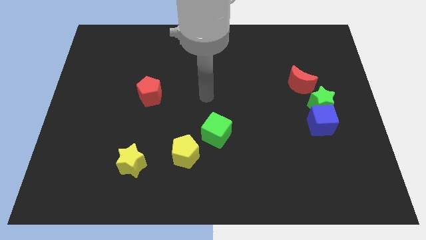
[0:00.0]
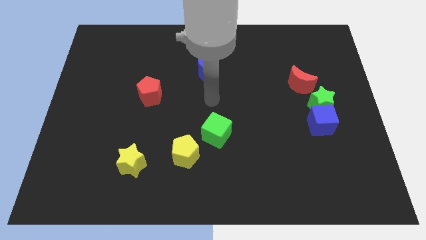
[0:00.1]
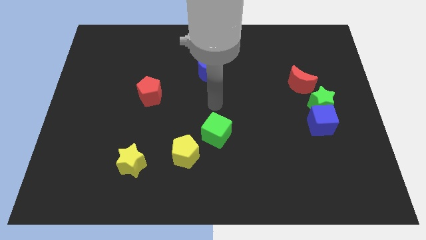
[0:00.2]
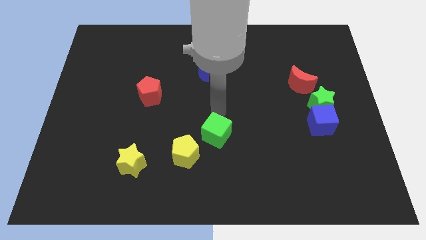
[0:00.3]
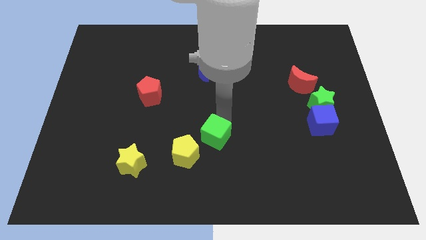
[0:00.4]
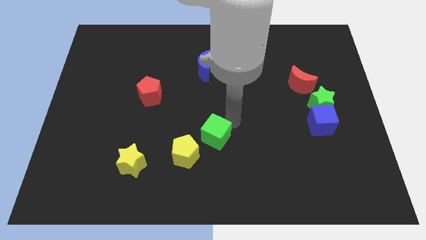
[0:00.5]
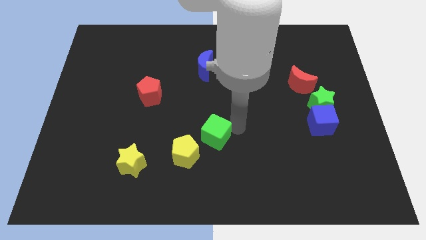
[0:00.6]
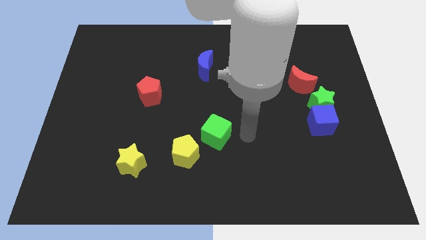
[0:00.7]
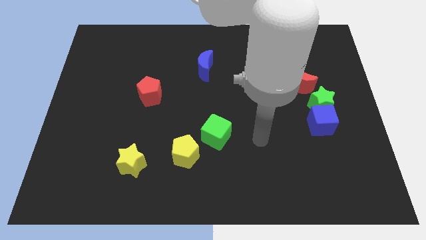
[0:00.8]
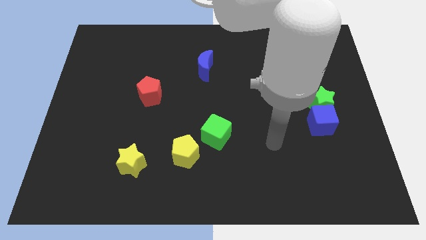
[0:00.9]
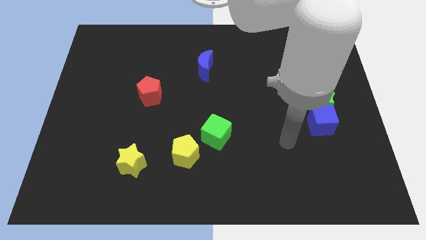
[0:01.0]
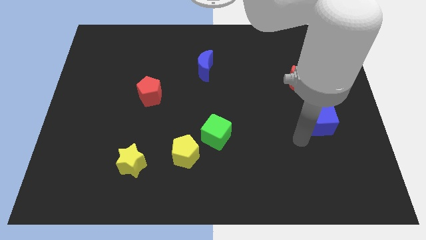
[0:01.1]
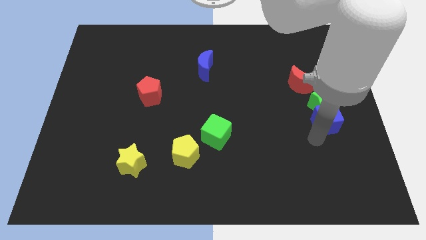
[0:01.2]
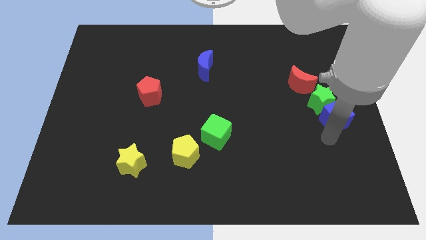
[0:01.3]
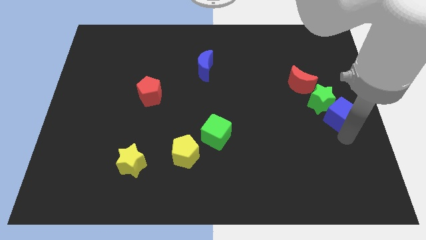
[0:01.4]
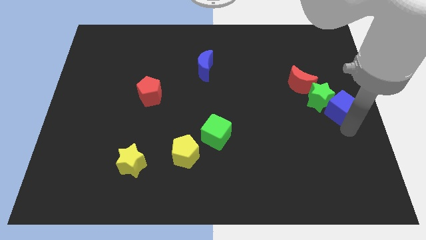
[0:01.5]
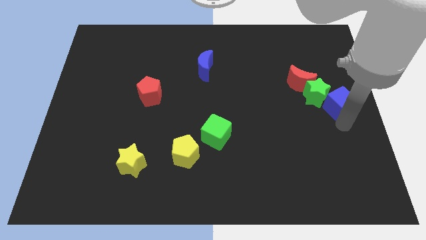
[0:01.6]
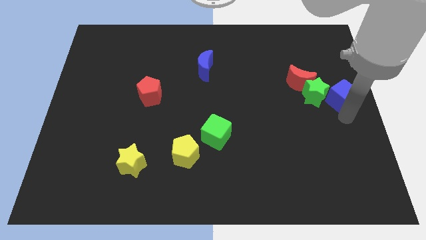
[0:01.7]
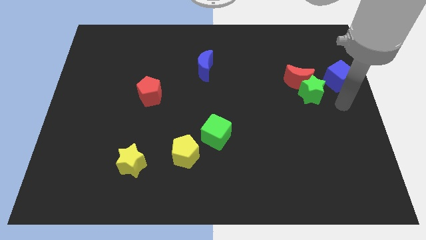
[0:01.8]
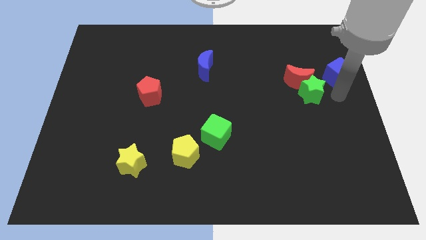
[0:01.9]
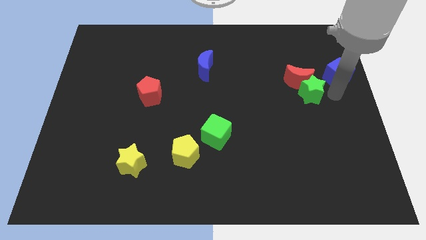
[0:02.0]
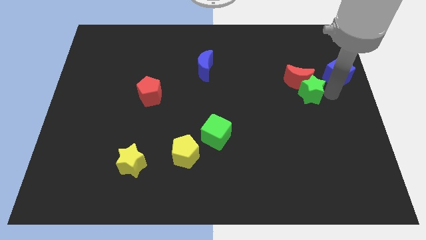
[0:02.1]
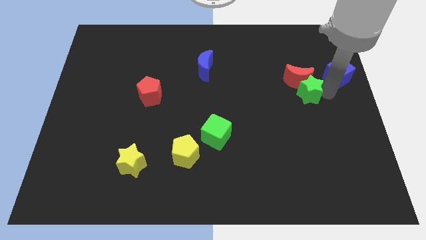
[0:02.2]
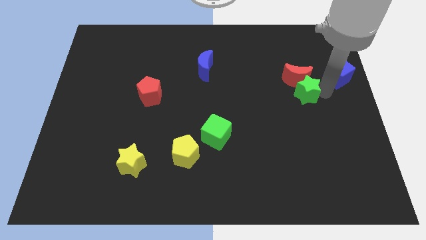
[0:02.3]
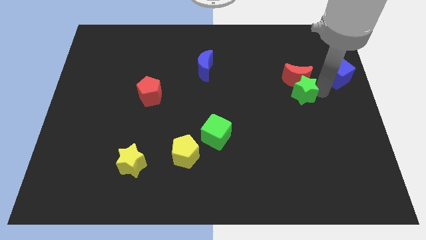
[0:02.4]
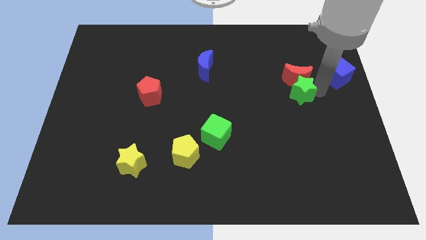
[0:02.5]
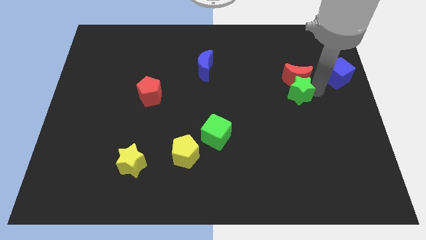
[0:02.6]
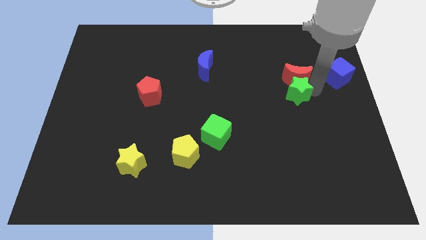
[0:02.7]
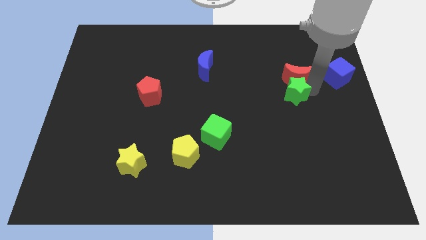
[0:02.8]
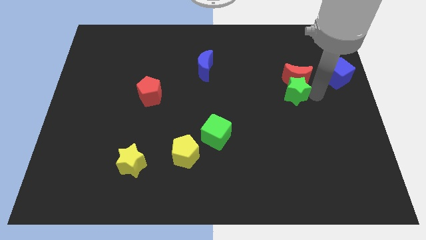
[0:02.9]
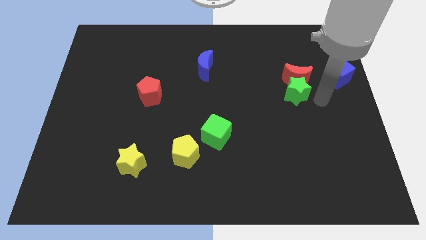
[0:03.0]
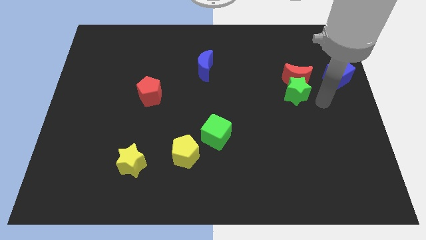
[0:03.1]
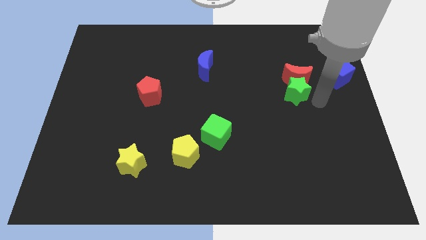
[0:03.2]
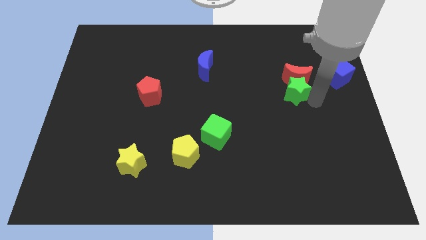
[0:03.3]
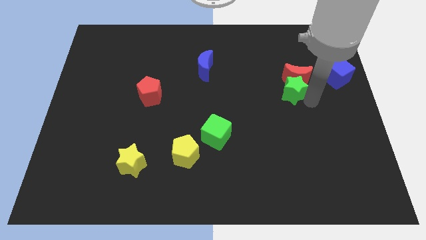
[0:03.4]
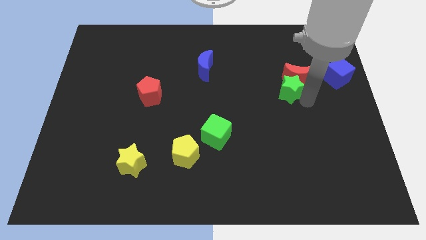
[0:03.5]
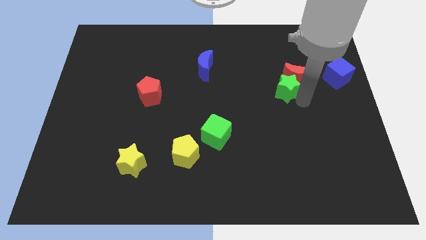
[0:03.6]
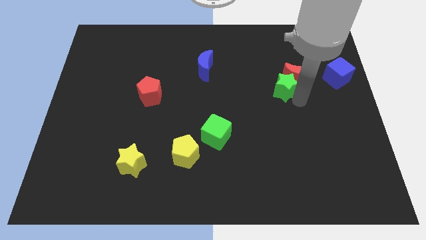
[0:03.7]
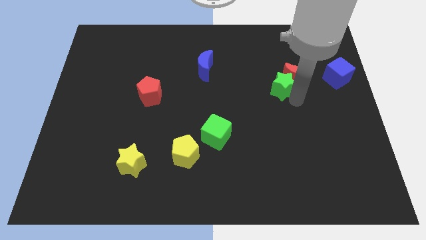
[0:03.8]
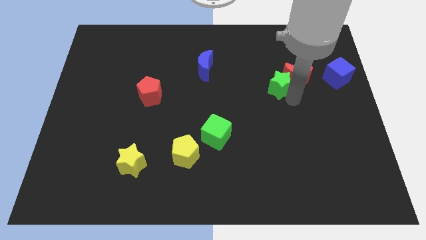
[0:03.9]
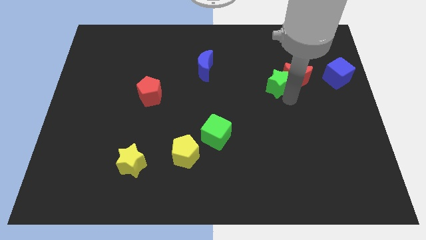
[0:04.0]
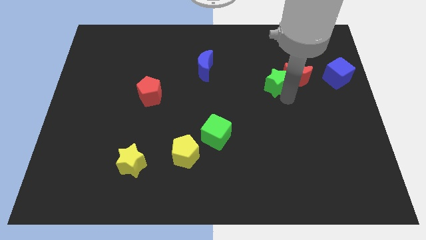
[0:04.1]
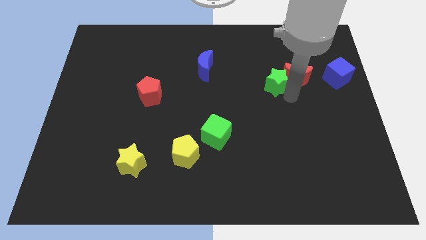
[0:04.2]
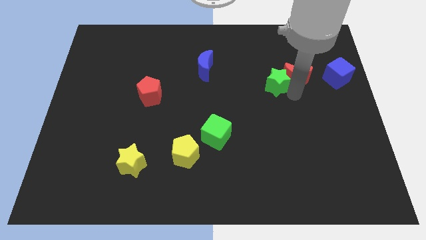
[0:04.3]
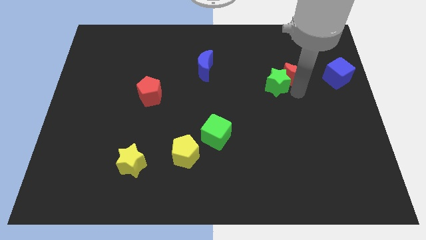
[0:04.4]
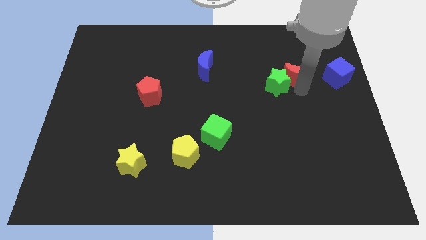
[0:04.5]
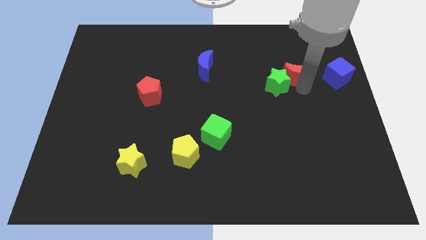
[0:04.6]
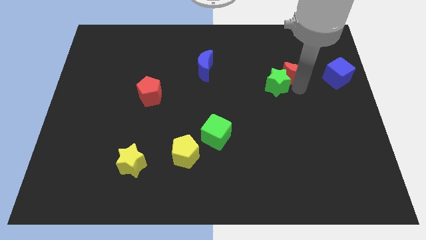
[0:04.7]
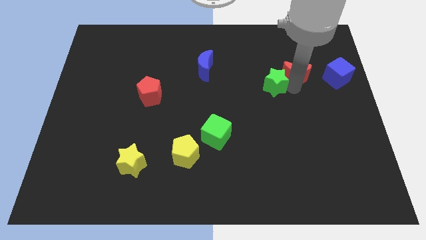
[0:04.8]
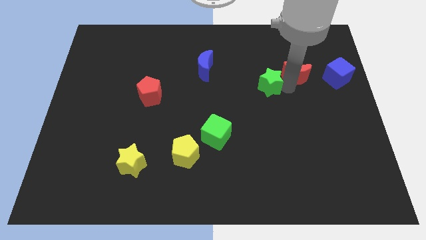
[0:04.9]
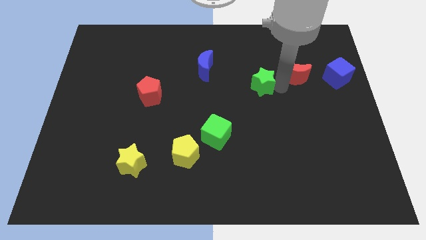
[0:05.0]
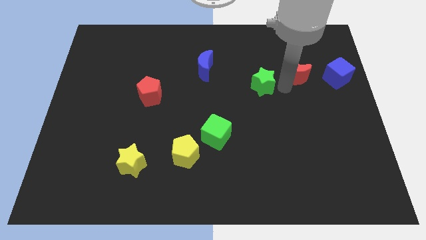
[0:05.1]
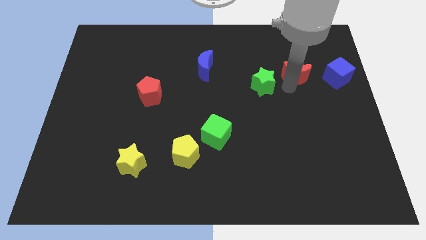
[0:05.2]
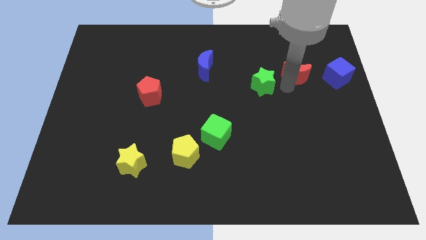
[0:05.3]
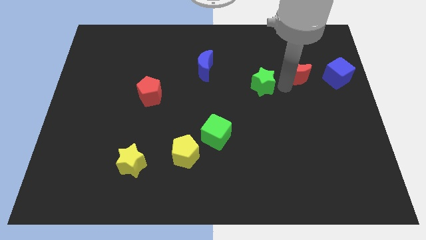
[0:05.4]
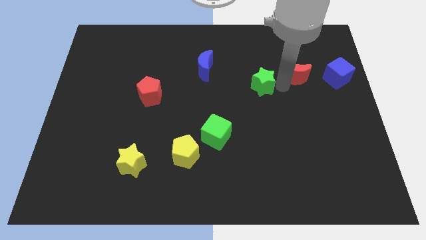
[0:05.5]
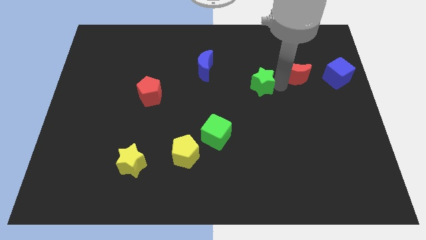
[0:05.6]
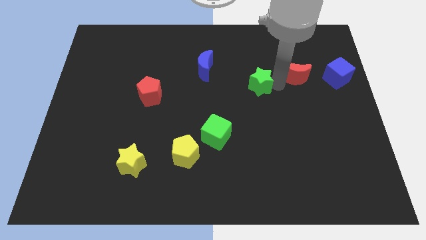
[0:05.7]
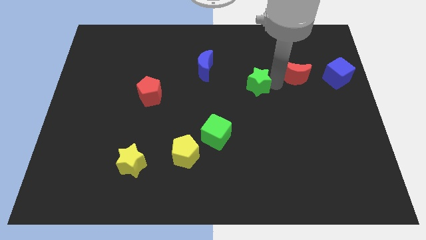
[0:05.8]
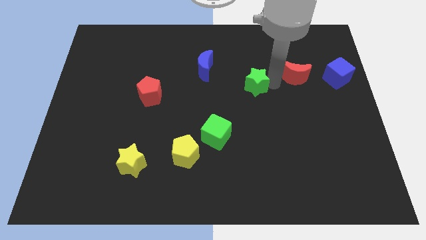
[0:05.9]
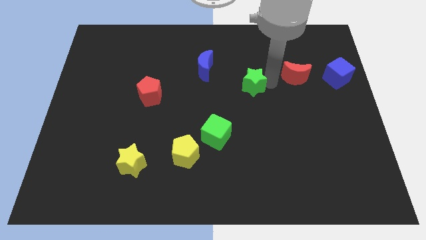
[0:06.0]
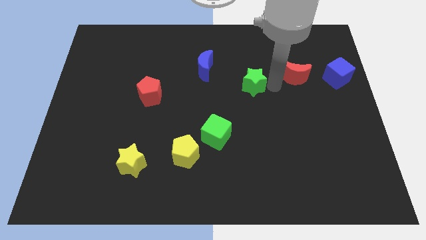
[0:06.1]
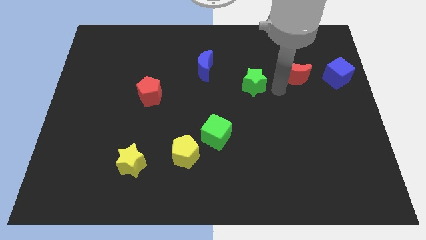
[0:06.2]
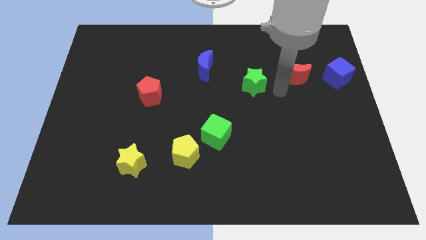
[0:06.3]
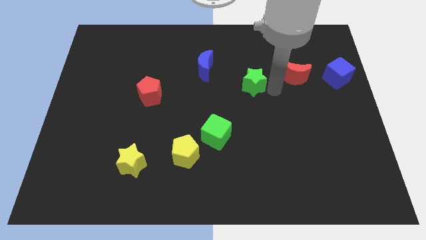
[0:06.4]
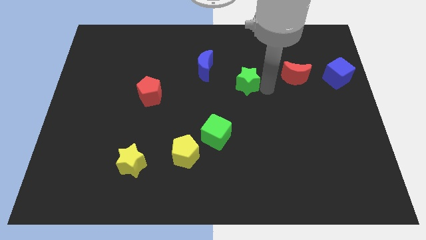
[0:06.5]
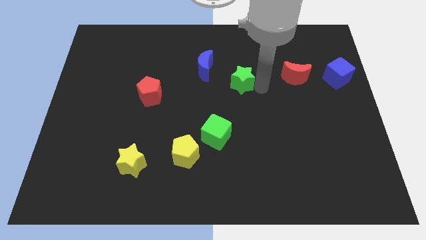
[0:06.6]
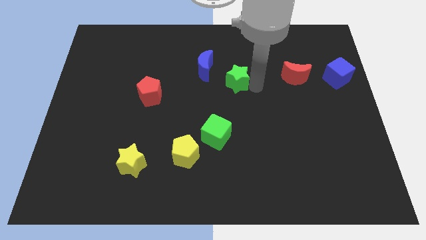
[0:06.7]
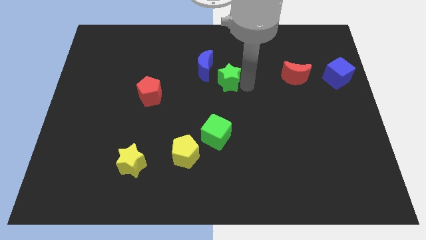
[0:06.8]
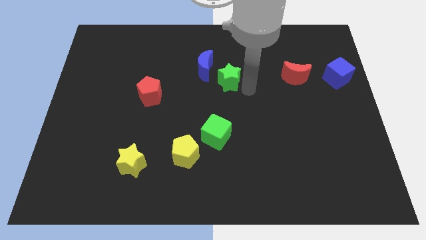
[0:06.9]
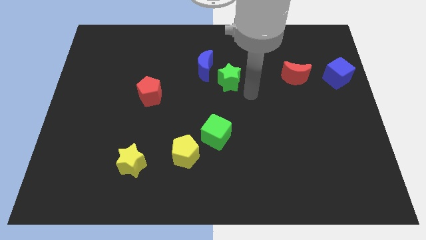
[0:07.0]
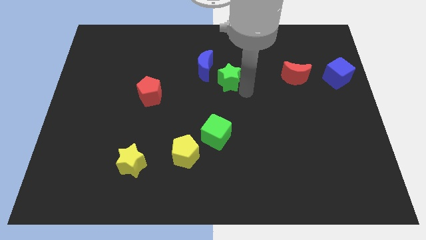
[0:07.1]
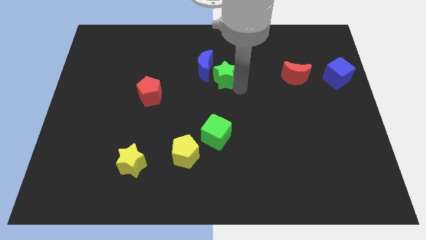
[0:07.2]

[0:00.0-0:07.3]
move the green star to the blue moon

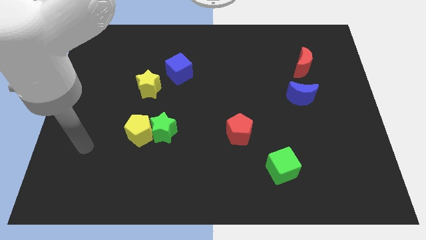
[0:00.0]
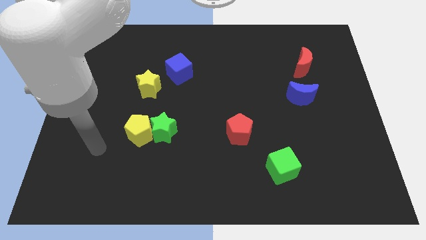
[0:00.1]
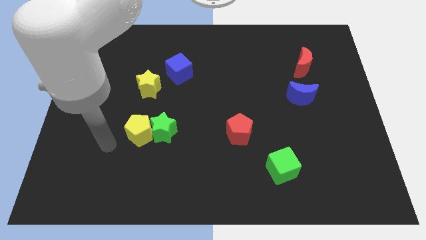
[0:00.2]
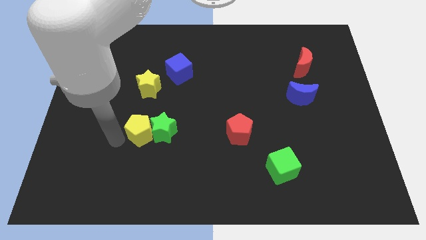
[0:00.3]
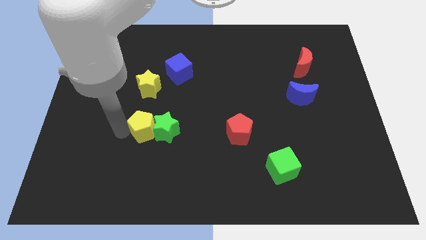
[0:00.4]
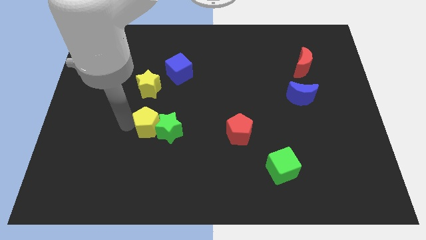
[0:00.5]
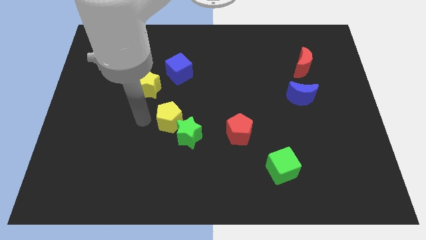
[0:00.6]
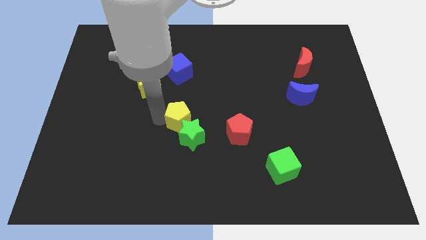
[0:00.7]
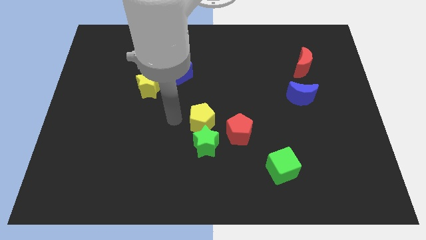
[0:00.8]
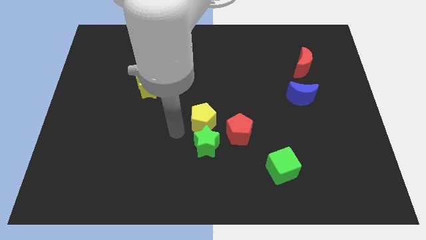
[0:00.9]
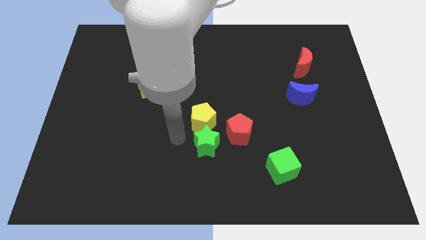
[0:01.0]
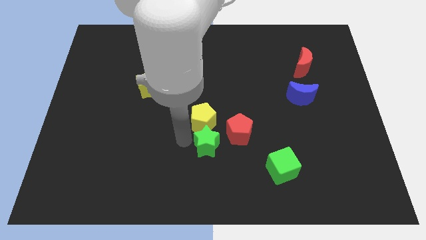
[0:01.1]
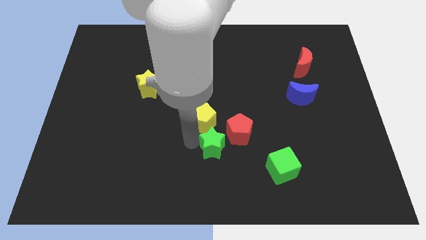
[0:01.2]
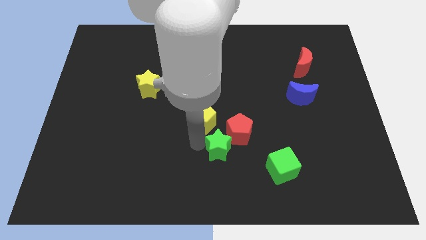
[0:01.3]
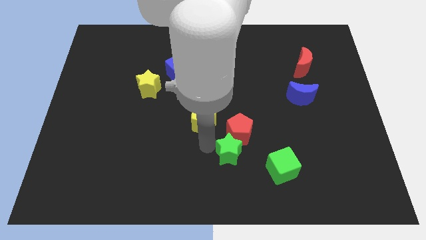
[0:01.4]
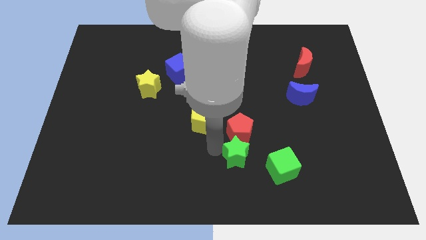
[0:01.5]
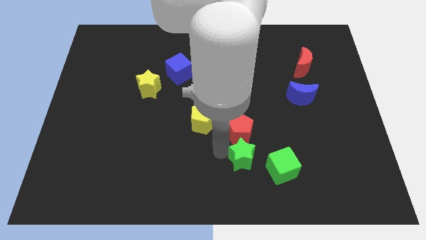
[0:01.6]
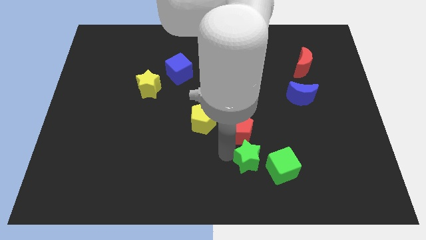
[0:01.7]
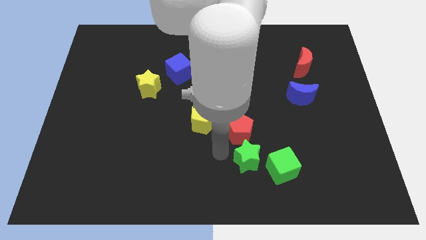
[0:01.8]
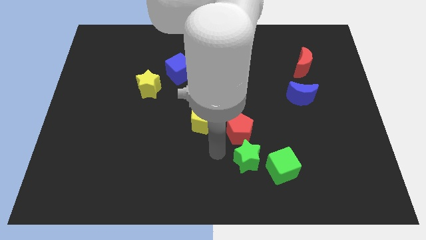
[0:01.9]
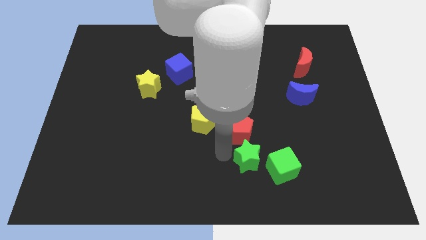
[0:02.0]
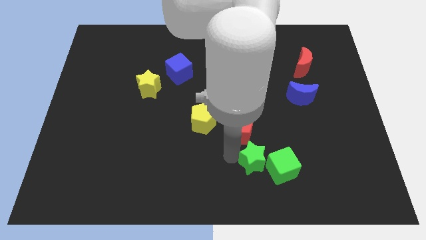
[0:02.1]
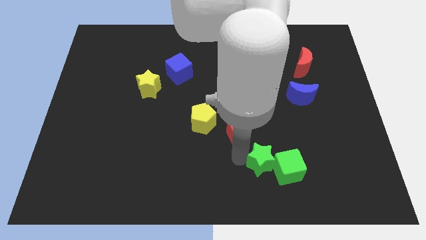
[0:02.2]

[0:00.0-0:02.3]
move the green star next to the green cube
